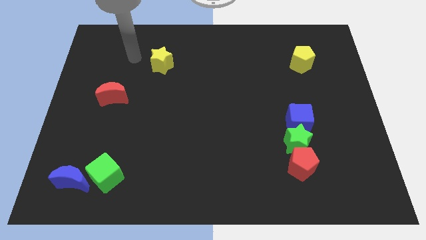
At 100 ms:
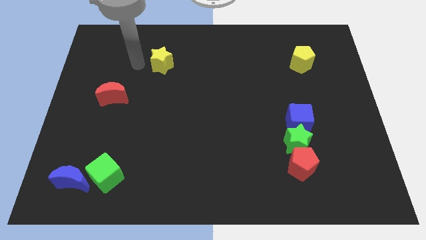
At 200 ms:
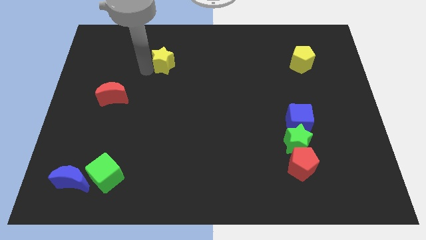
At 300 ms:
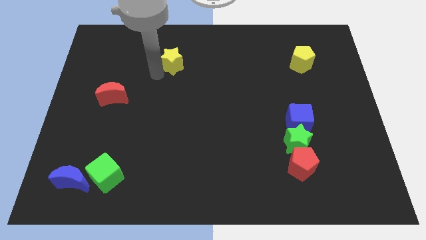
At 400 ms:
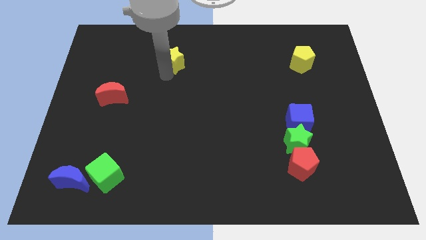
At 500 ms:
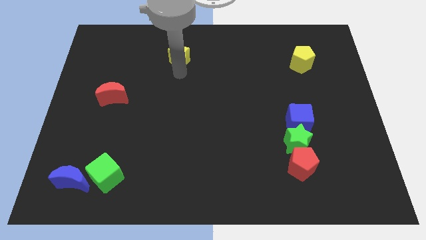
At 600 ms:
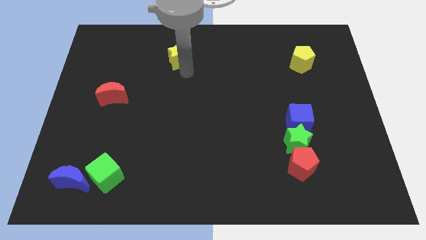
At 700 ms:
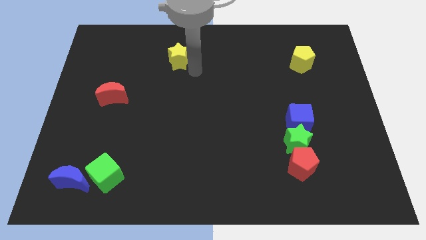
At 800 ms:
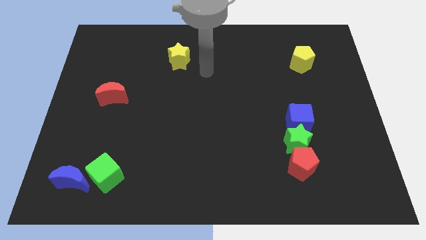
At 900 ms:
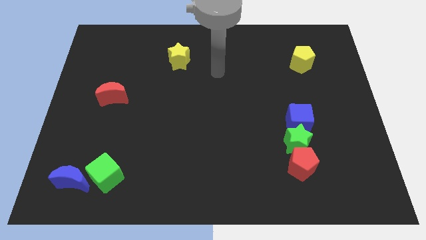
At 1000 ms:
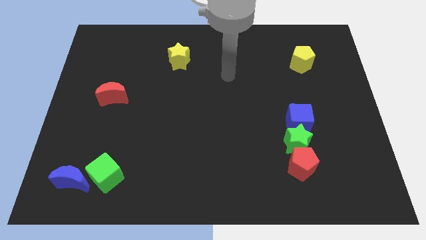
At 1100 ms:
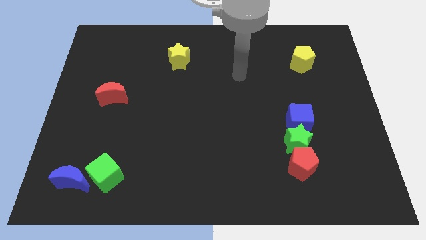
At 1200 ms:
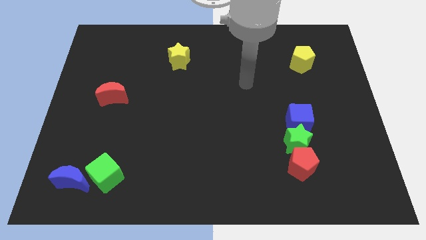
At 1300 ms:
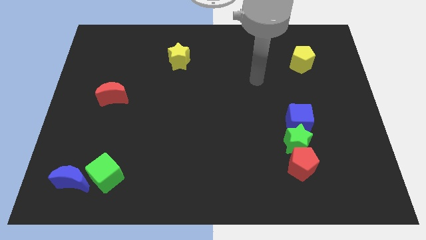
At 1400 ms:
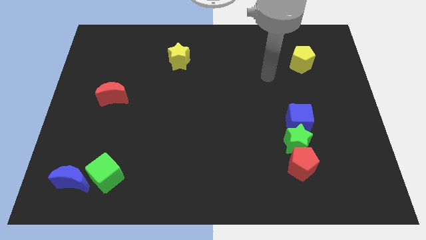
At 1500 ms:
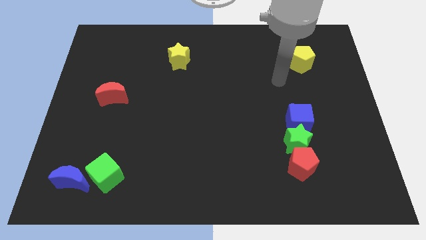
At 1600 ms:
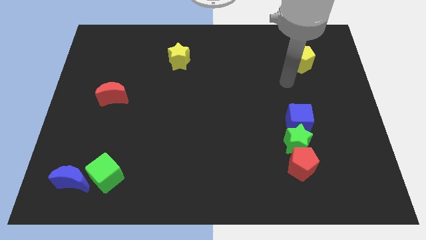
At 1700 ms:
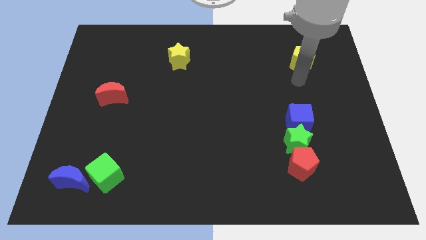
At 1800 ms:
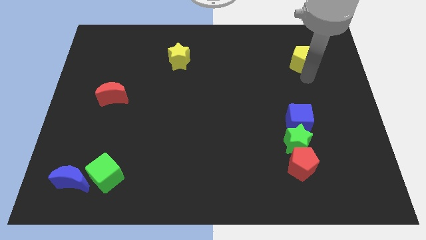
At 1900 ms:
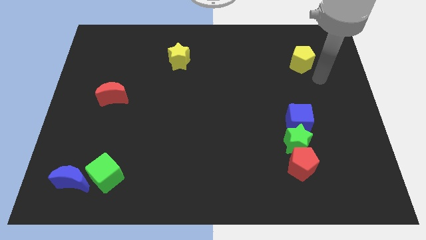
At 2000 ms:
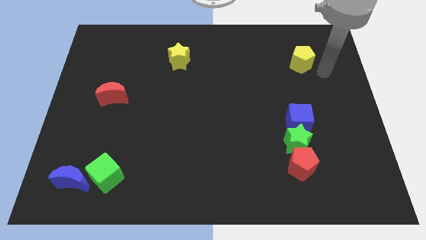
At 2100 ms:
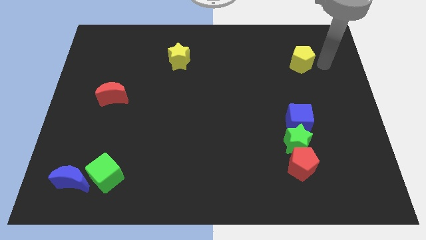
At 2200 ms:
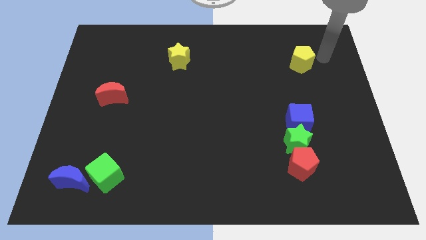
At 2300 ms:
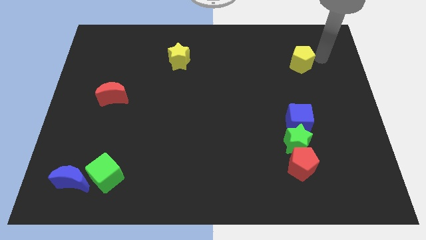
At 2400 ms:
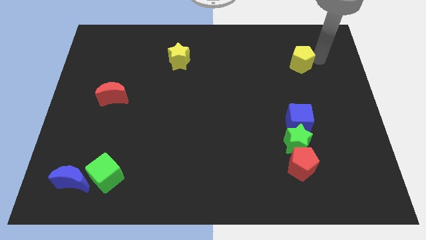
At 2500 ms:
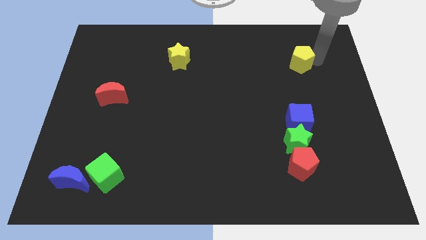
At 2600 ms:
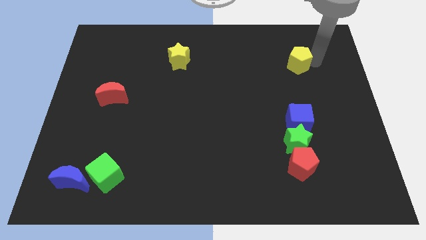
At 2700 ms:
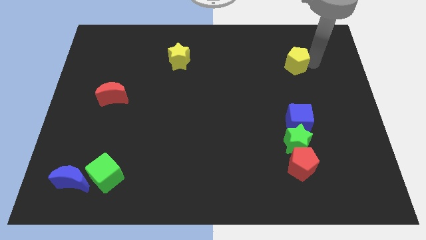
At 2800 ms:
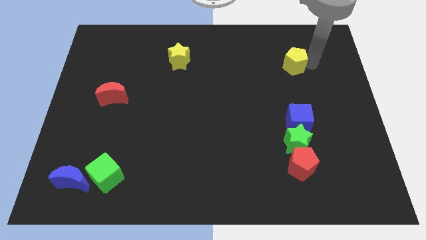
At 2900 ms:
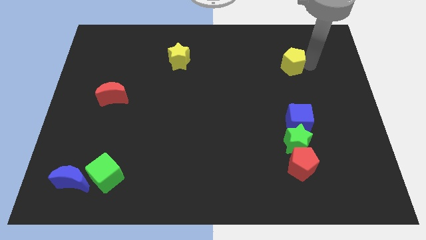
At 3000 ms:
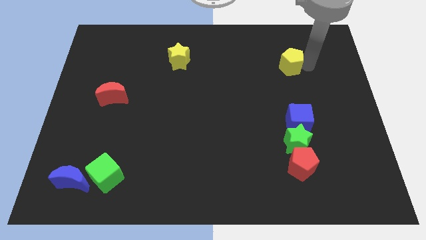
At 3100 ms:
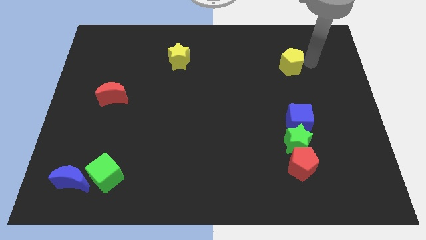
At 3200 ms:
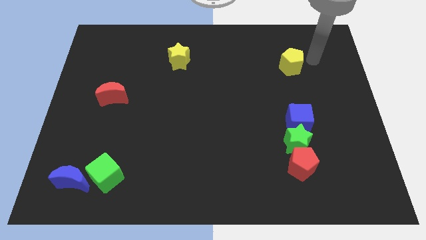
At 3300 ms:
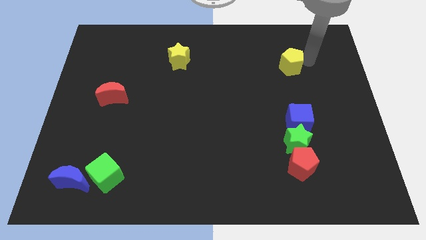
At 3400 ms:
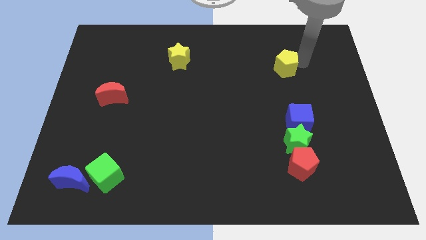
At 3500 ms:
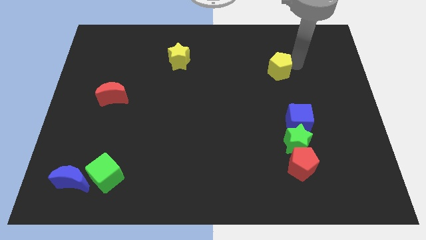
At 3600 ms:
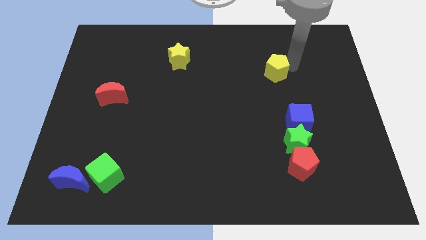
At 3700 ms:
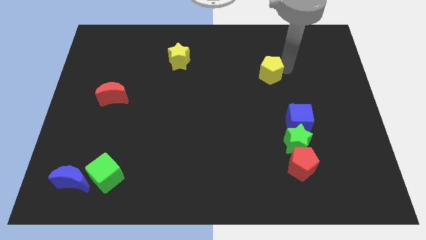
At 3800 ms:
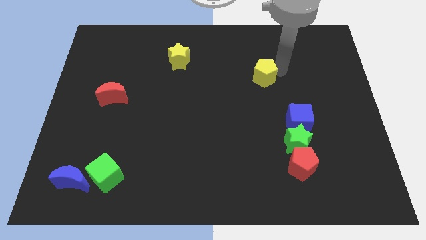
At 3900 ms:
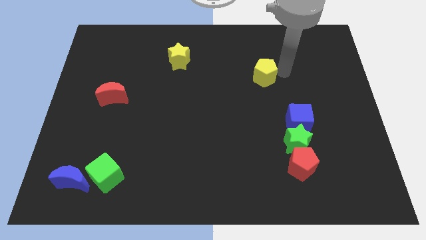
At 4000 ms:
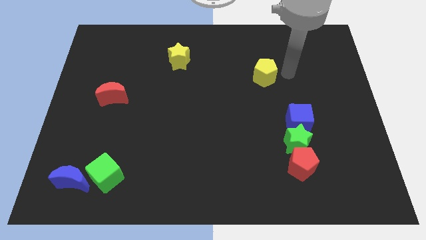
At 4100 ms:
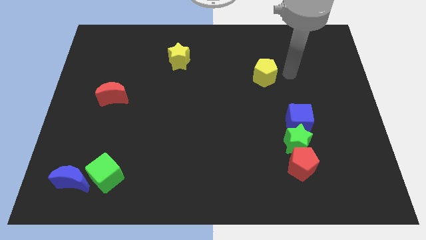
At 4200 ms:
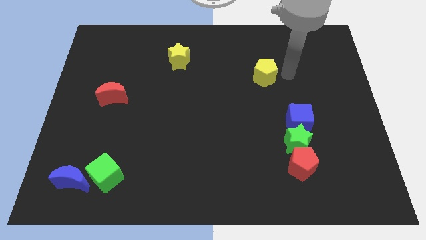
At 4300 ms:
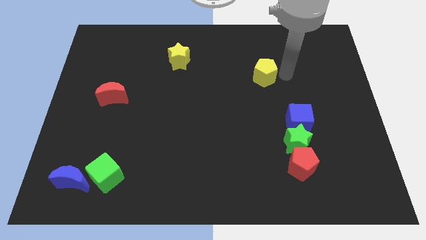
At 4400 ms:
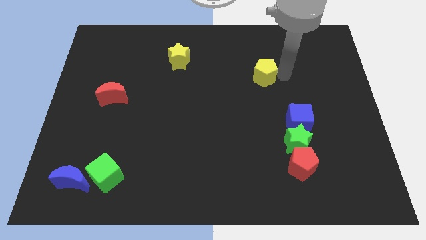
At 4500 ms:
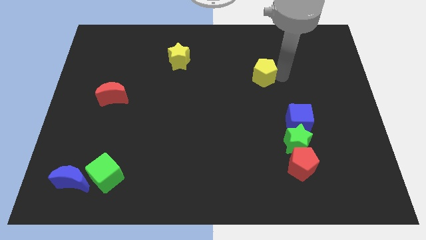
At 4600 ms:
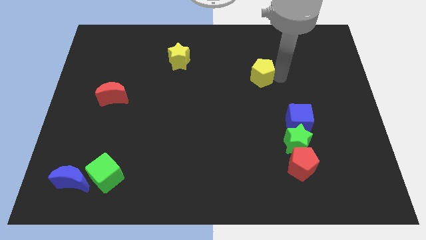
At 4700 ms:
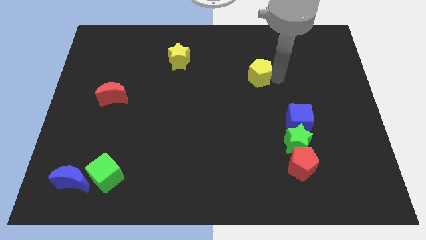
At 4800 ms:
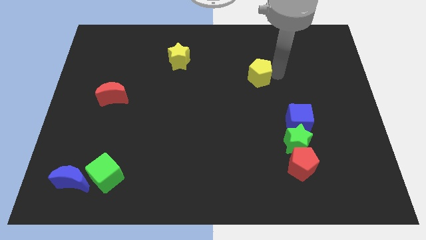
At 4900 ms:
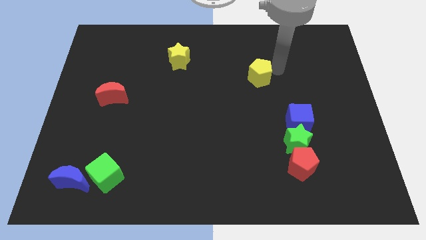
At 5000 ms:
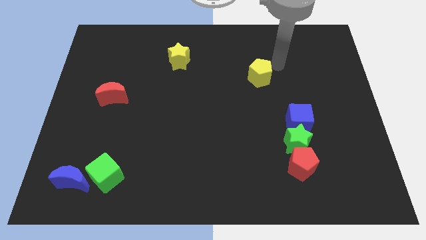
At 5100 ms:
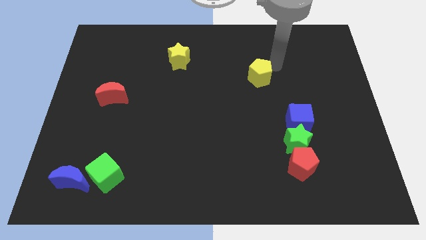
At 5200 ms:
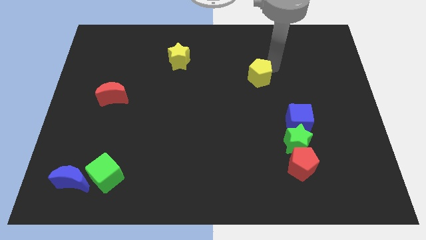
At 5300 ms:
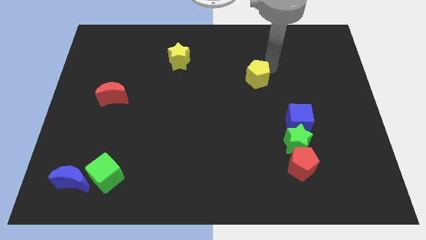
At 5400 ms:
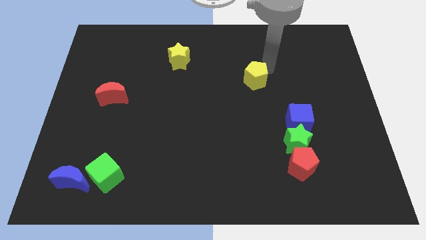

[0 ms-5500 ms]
slide the yellow pentagon to the middle
